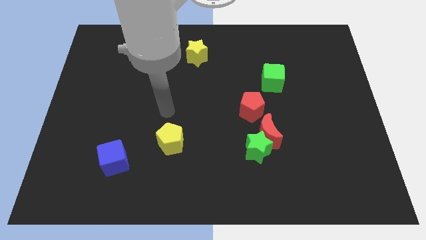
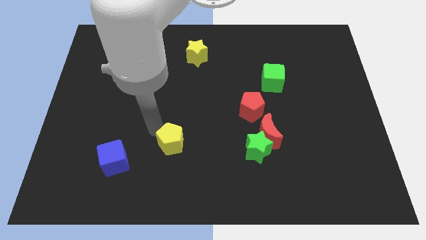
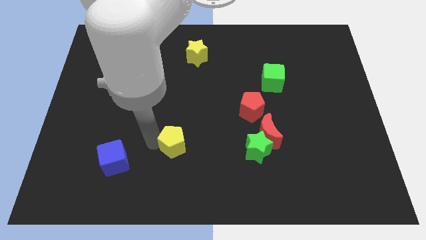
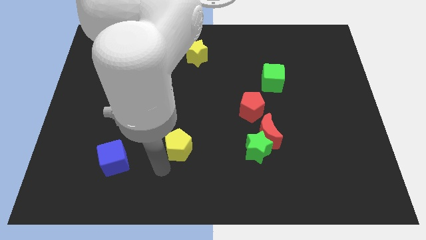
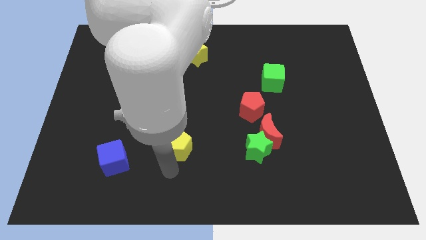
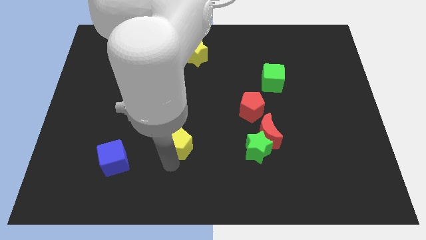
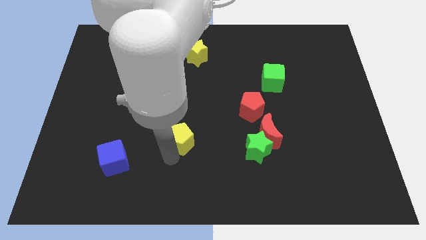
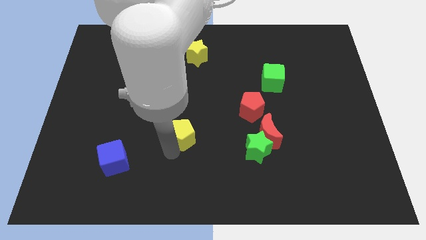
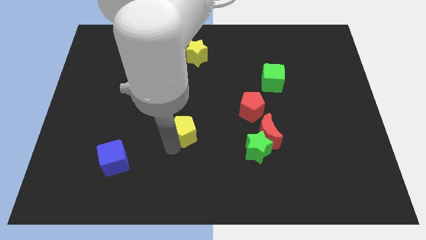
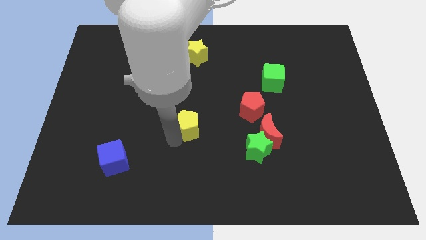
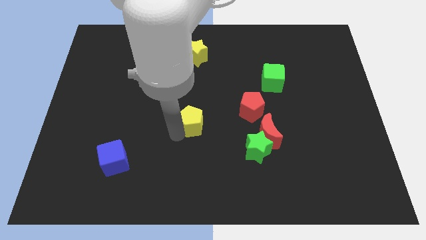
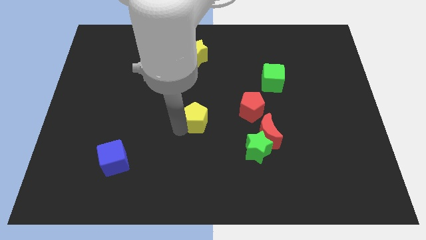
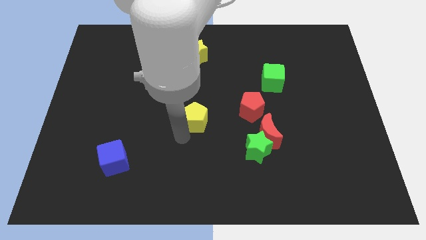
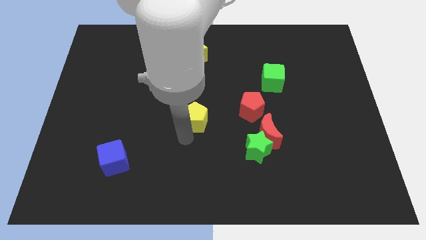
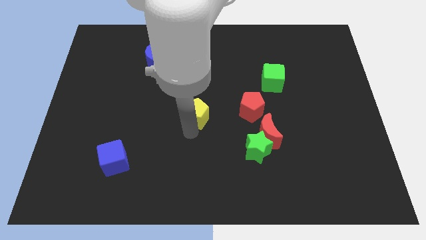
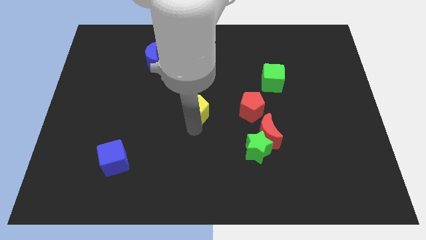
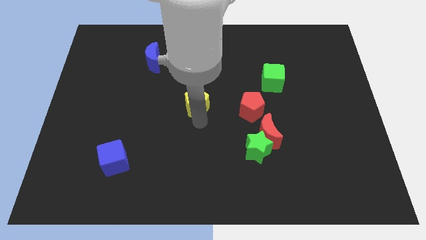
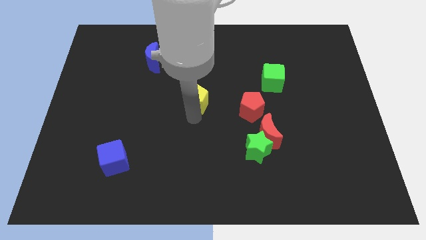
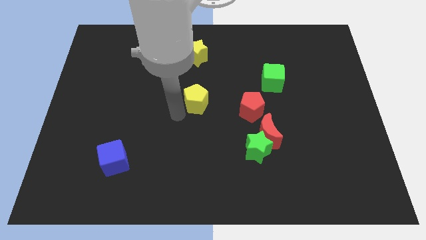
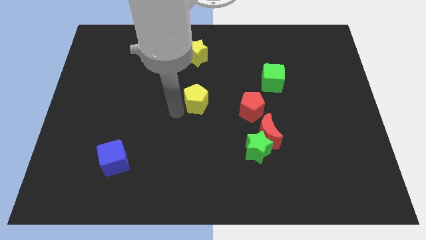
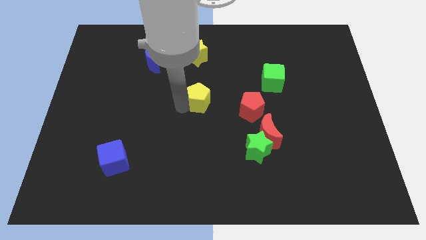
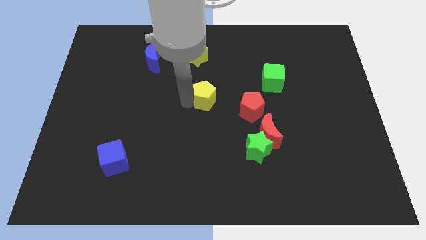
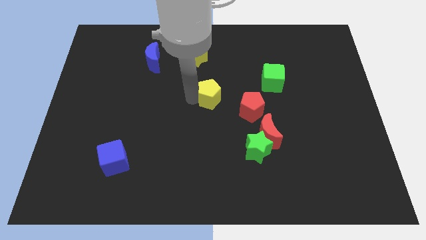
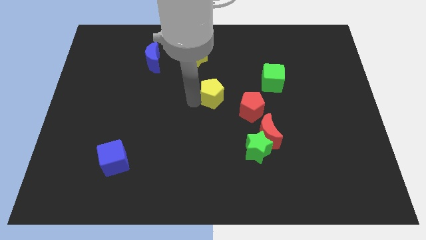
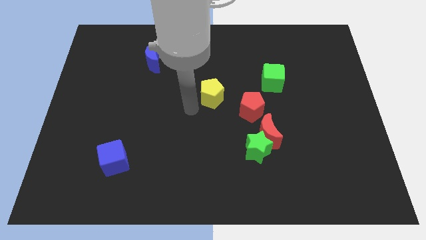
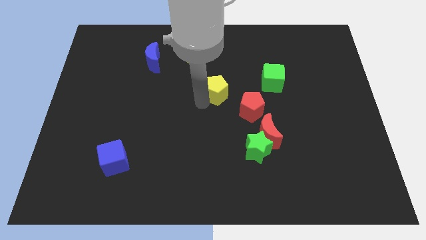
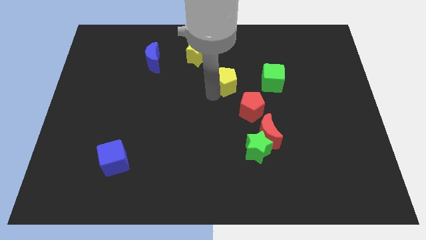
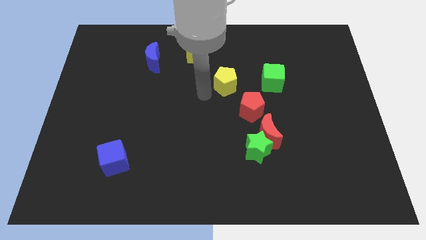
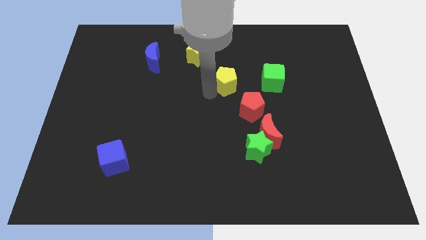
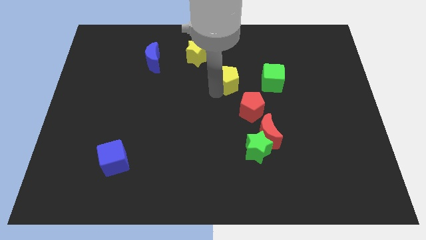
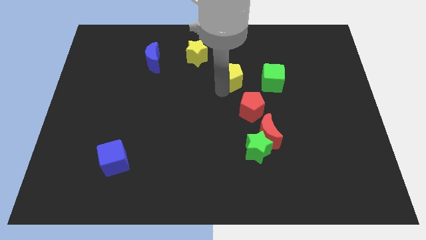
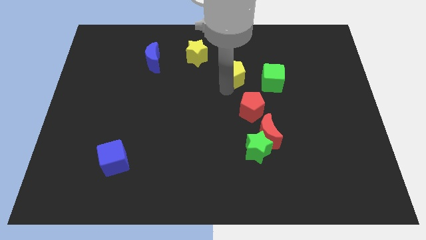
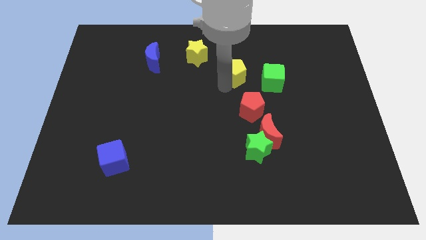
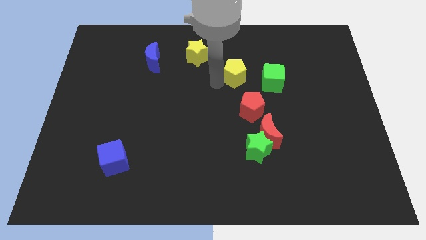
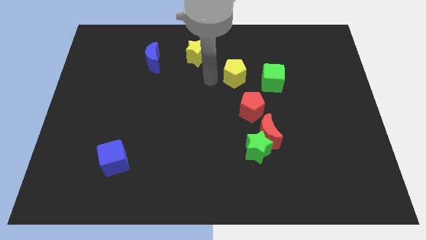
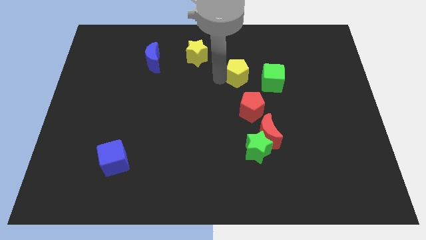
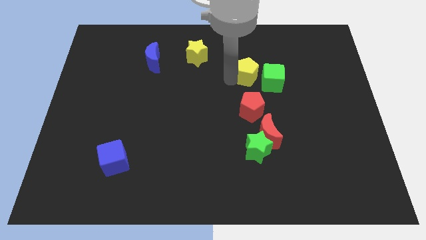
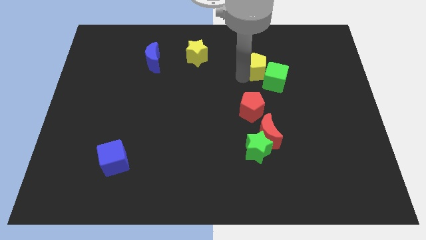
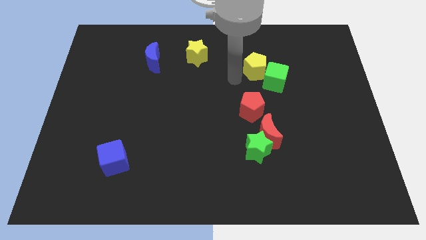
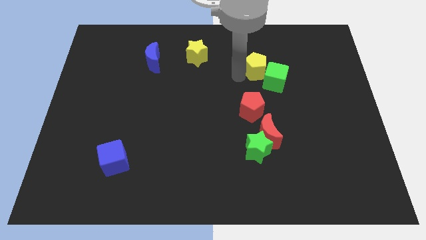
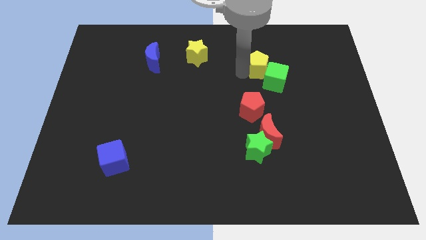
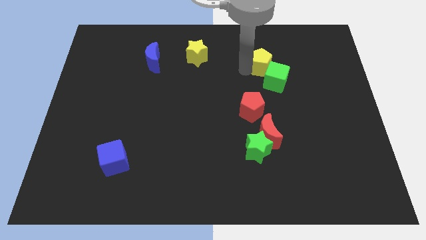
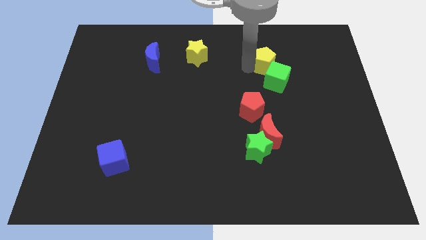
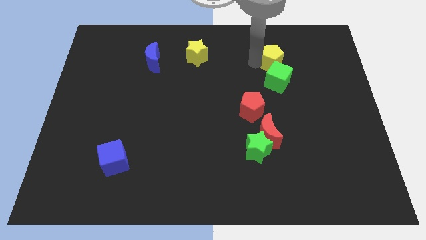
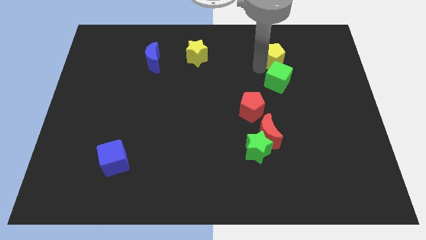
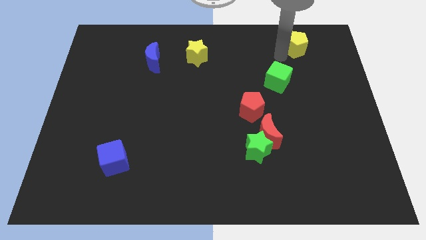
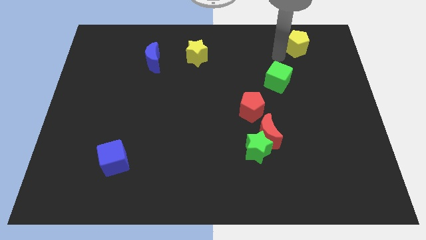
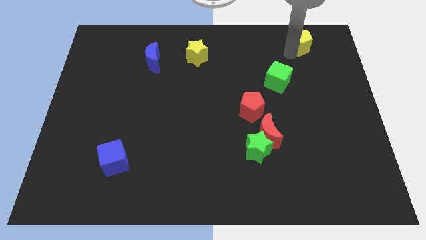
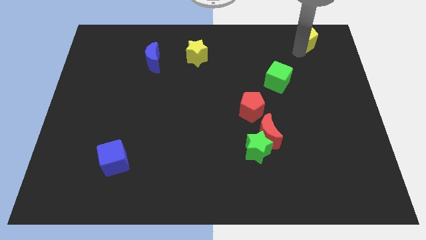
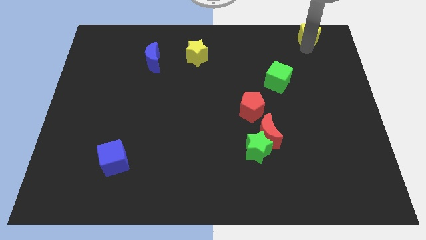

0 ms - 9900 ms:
slide the yellow pentagon to the top right of the board
